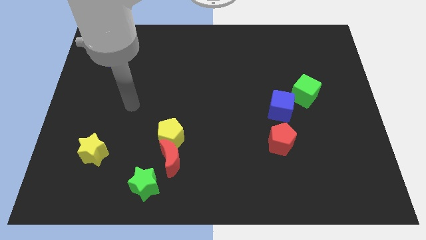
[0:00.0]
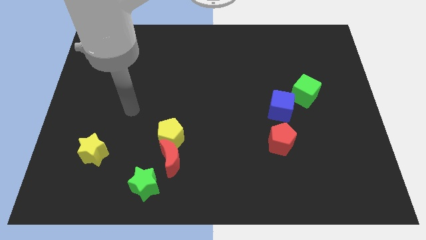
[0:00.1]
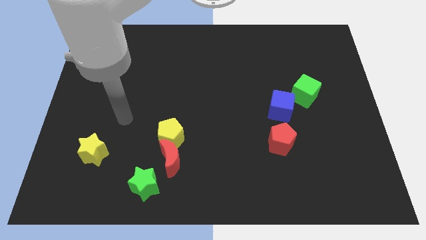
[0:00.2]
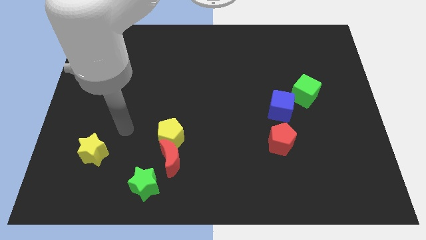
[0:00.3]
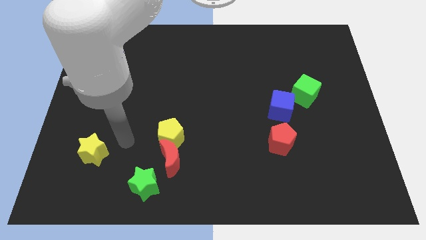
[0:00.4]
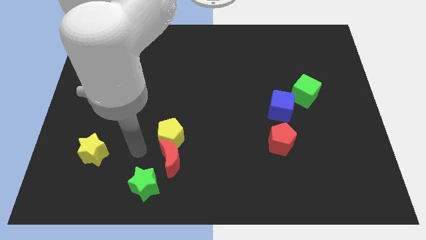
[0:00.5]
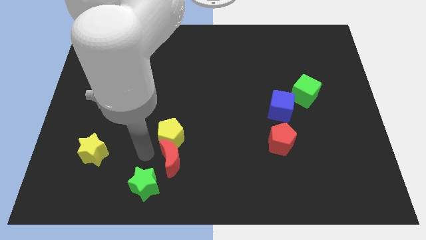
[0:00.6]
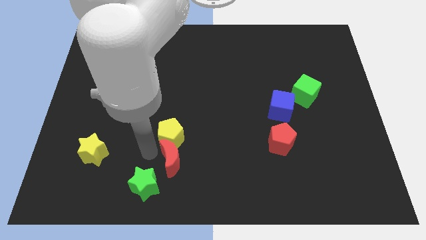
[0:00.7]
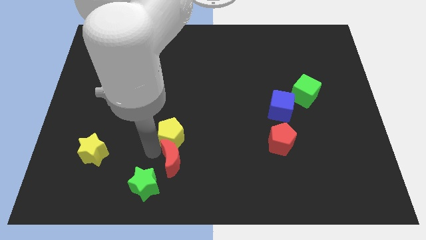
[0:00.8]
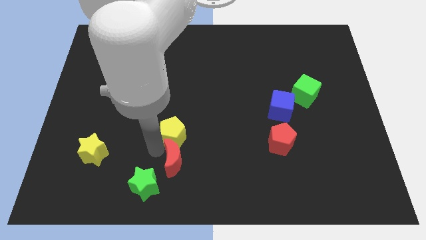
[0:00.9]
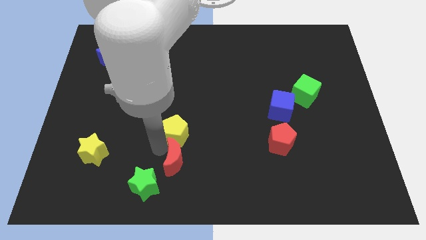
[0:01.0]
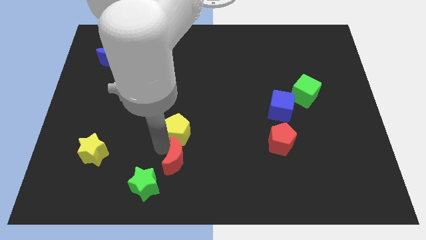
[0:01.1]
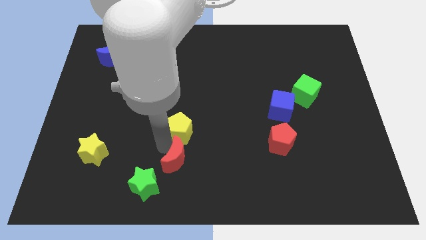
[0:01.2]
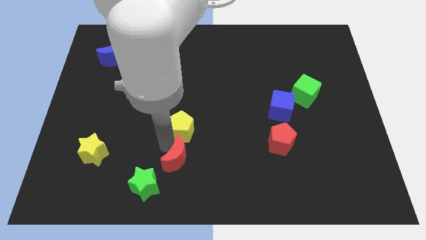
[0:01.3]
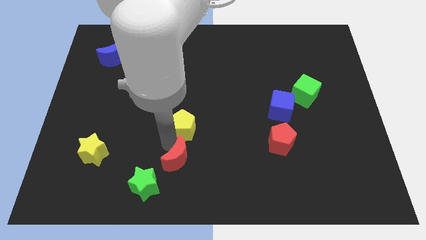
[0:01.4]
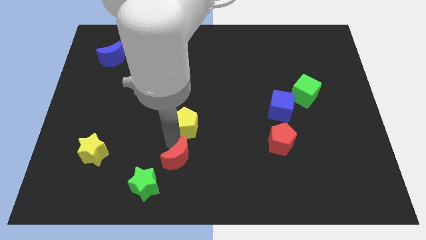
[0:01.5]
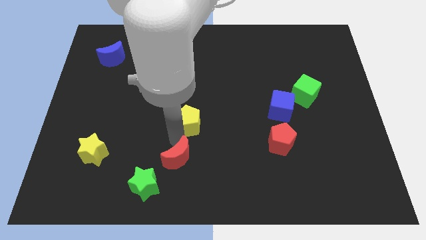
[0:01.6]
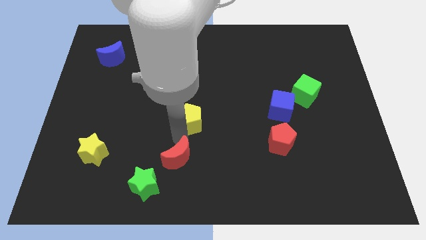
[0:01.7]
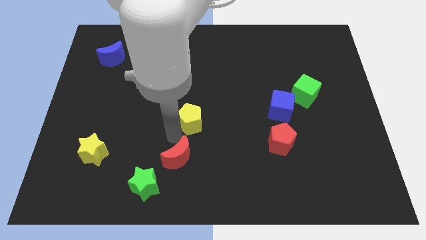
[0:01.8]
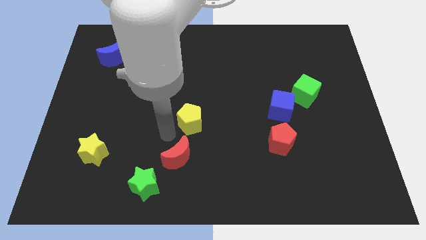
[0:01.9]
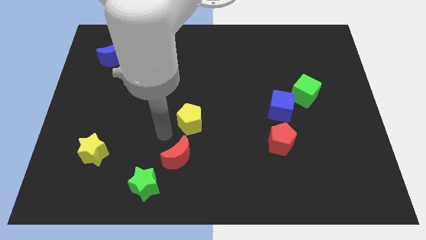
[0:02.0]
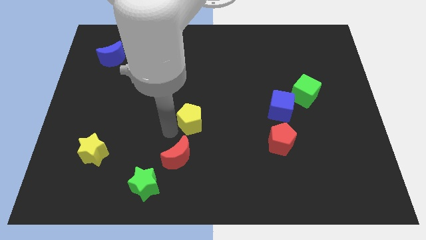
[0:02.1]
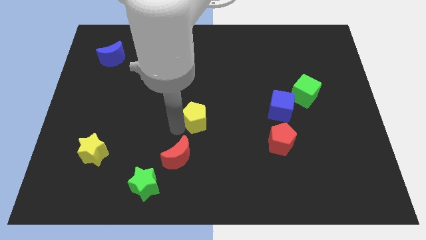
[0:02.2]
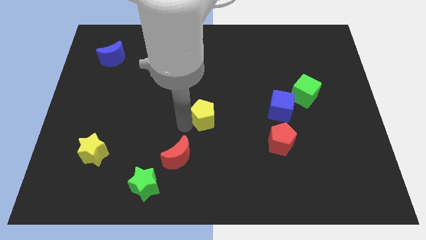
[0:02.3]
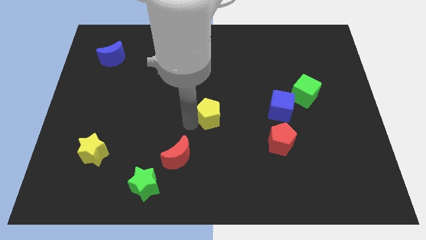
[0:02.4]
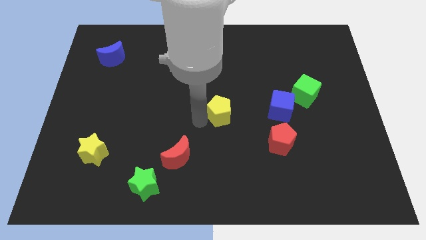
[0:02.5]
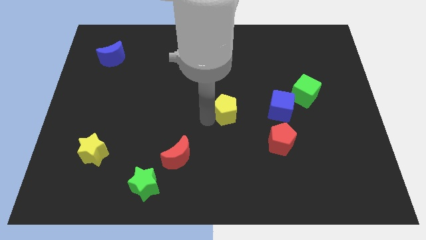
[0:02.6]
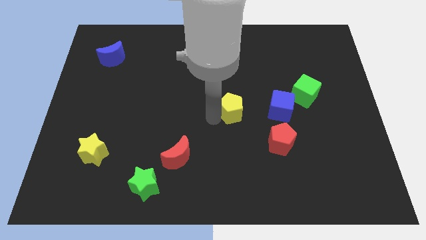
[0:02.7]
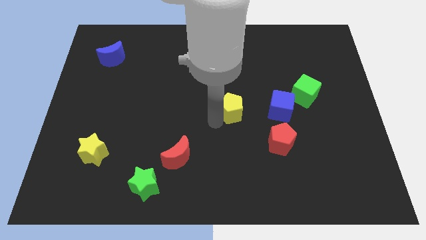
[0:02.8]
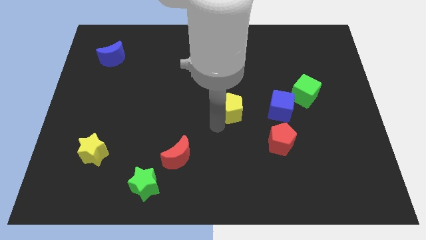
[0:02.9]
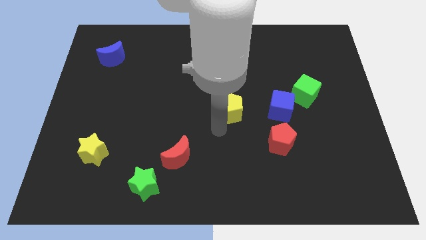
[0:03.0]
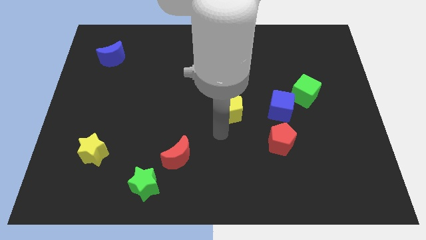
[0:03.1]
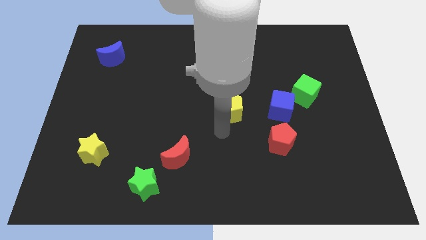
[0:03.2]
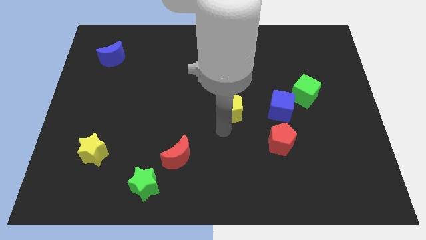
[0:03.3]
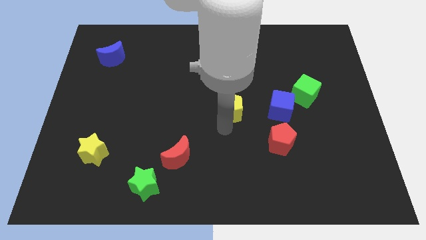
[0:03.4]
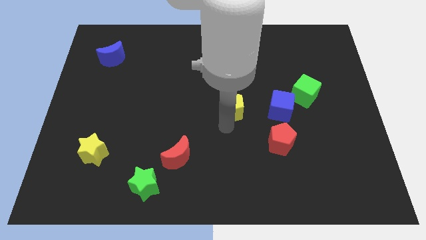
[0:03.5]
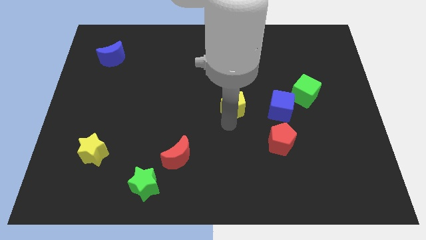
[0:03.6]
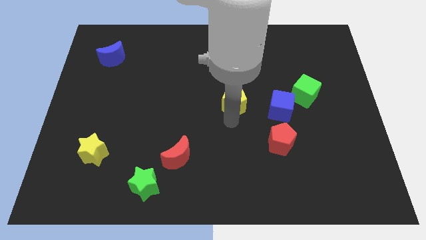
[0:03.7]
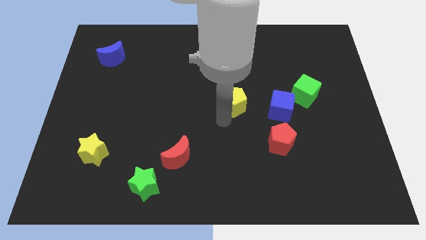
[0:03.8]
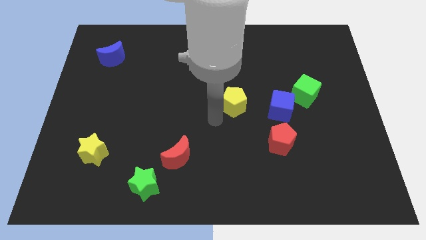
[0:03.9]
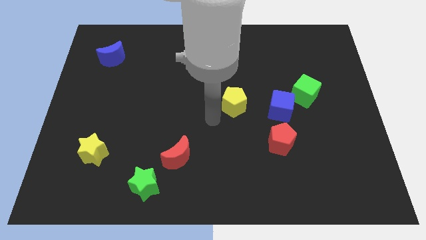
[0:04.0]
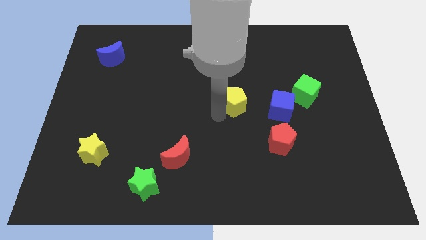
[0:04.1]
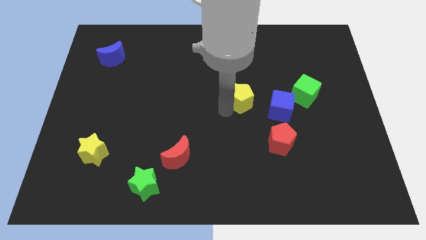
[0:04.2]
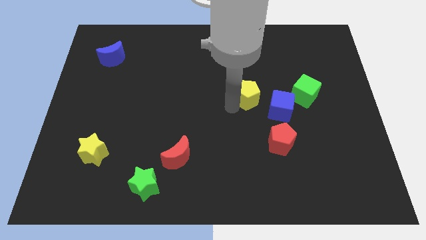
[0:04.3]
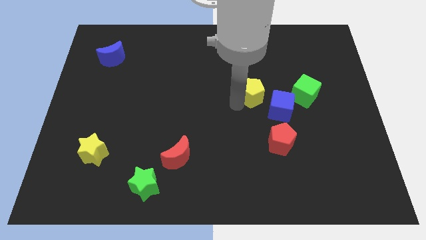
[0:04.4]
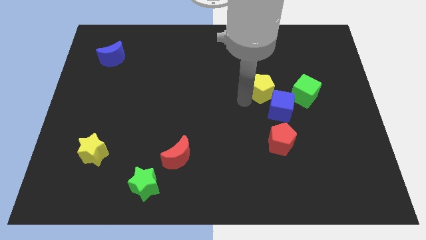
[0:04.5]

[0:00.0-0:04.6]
slide the yellow pentagon to the top of the blue cube

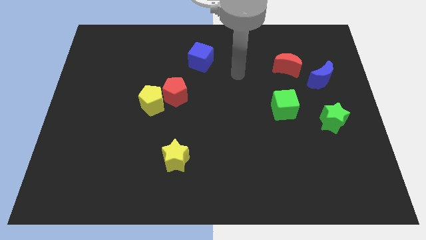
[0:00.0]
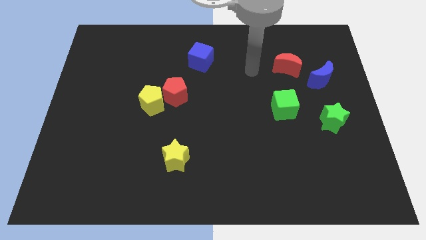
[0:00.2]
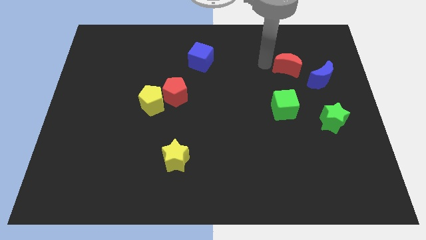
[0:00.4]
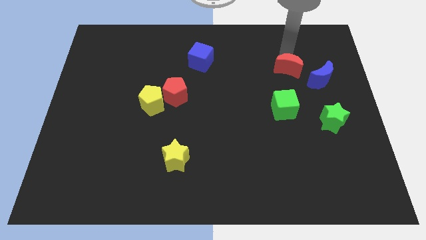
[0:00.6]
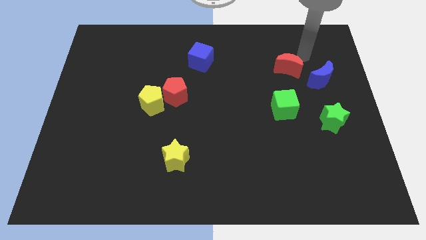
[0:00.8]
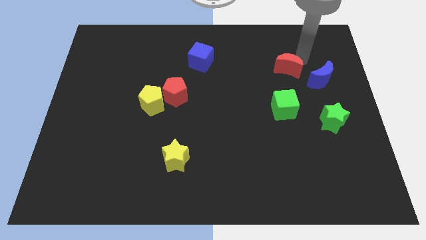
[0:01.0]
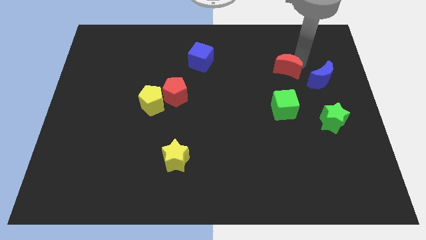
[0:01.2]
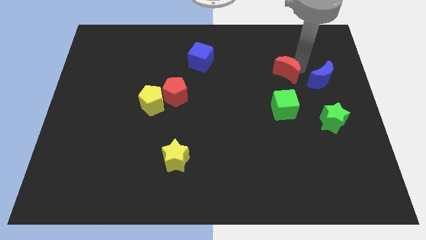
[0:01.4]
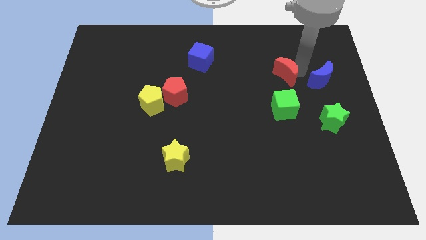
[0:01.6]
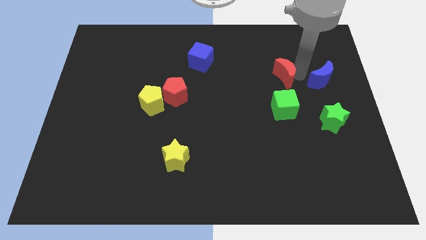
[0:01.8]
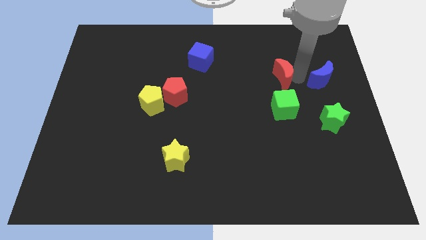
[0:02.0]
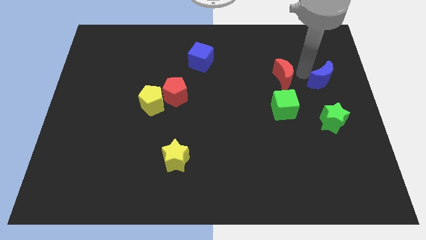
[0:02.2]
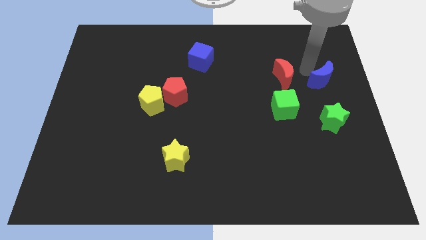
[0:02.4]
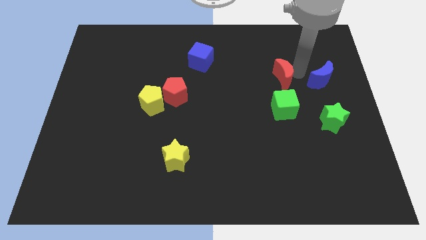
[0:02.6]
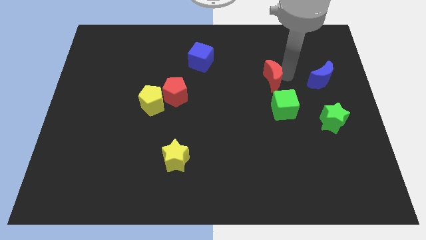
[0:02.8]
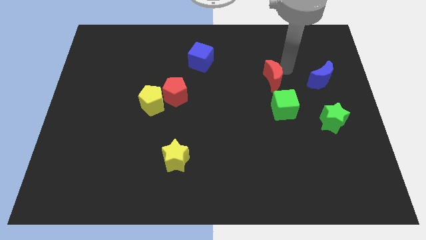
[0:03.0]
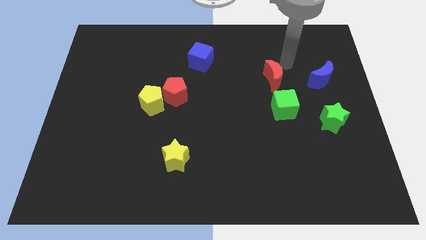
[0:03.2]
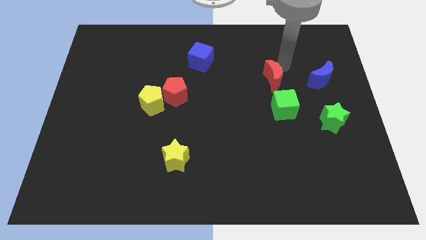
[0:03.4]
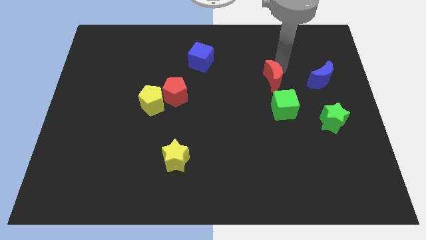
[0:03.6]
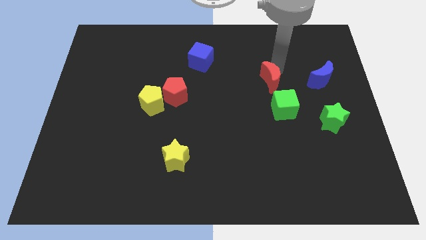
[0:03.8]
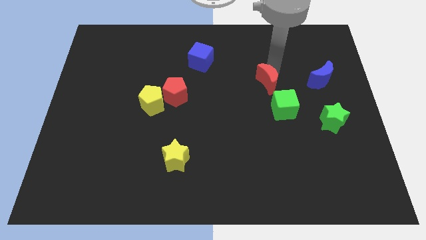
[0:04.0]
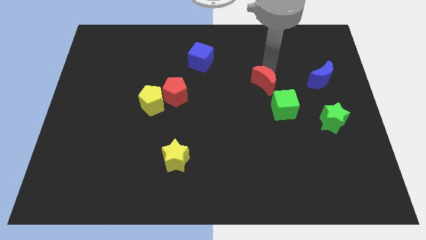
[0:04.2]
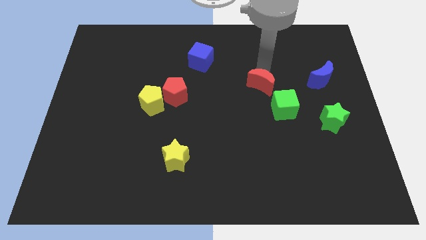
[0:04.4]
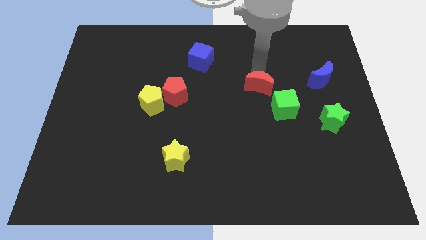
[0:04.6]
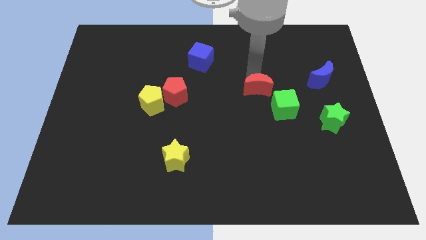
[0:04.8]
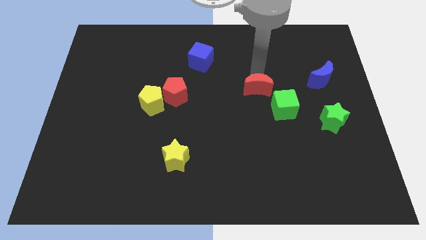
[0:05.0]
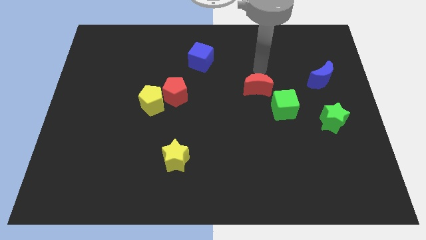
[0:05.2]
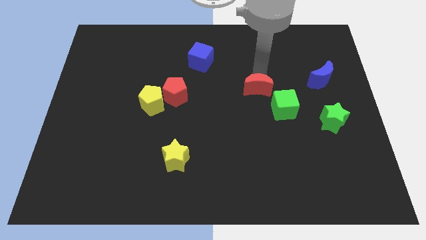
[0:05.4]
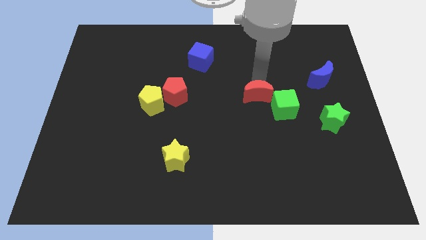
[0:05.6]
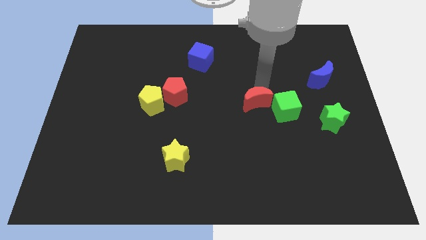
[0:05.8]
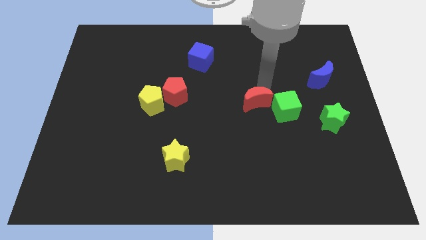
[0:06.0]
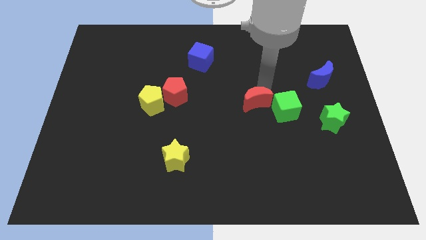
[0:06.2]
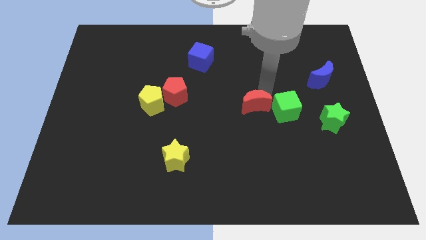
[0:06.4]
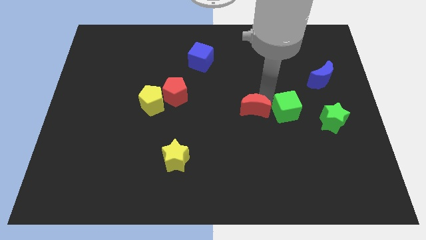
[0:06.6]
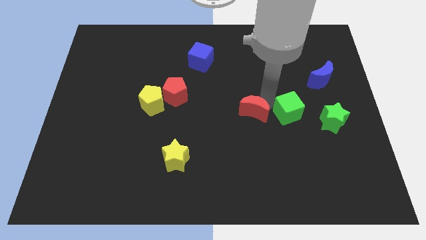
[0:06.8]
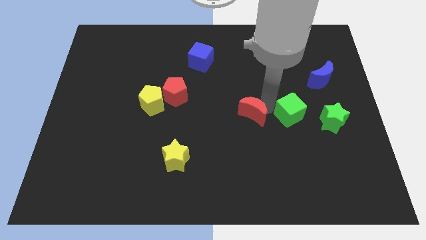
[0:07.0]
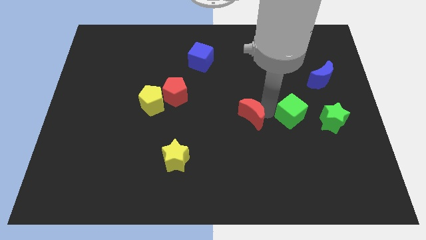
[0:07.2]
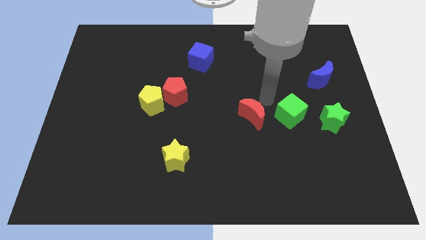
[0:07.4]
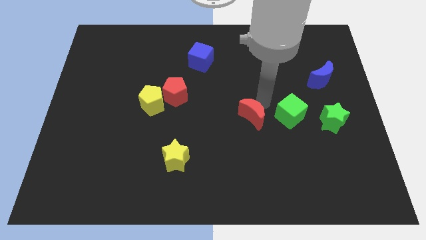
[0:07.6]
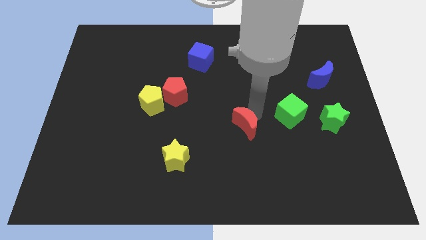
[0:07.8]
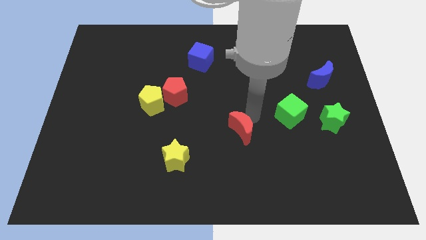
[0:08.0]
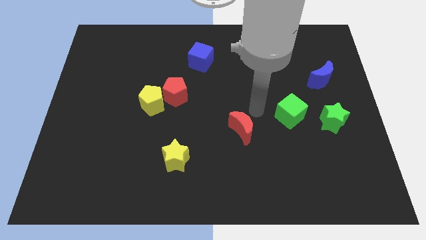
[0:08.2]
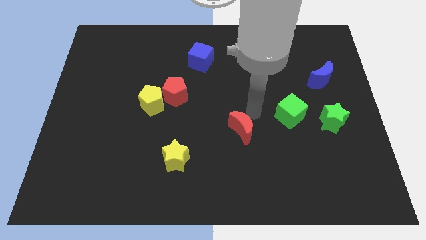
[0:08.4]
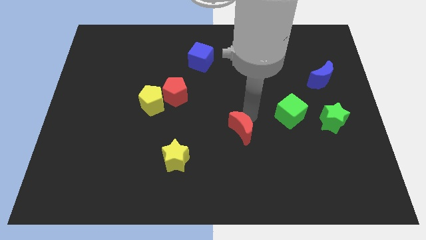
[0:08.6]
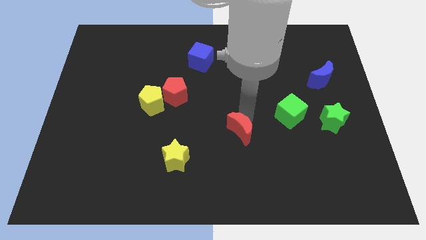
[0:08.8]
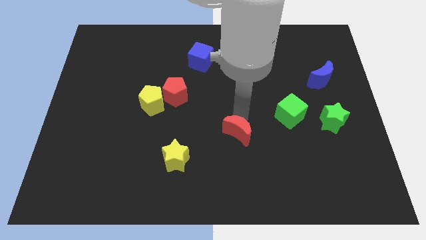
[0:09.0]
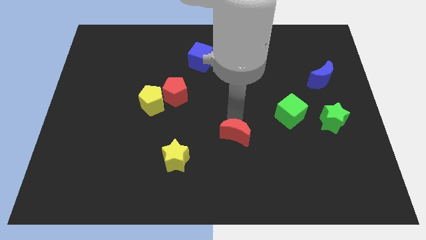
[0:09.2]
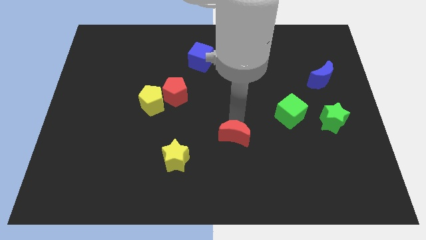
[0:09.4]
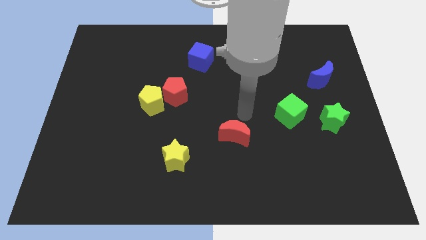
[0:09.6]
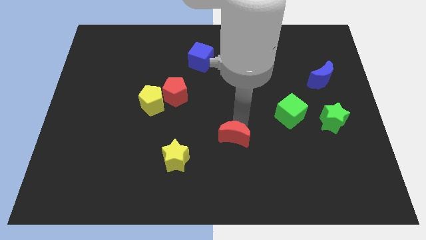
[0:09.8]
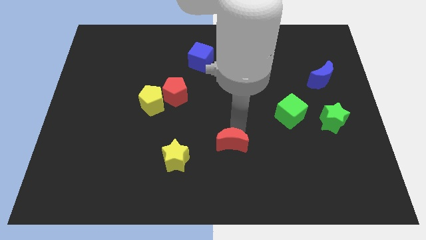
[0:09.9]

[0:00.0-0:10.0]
push the red moon to the right side of the yellow star
